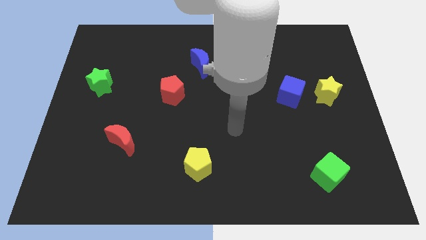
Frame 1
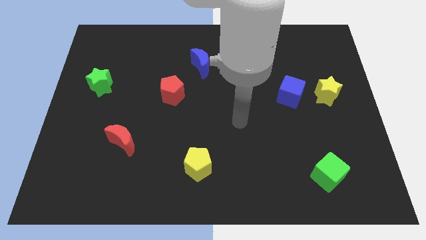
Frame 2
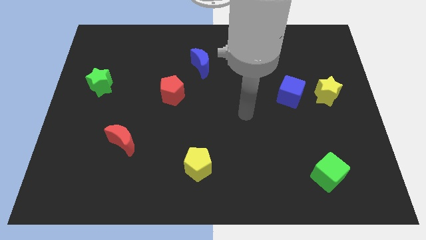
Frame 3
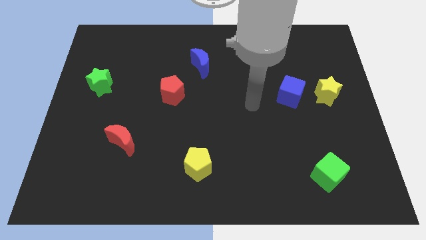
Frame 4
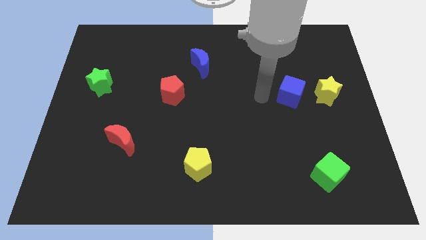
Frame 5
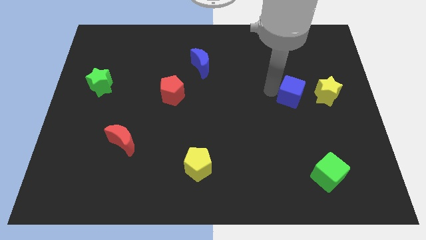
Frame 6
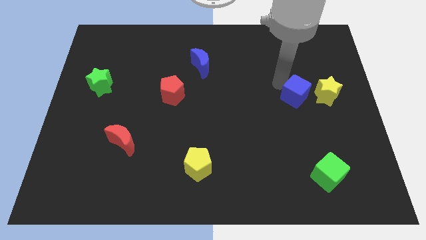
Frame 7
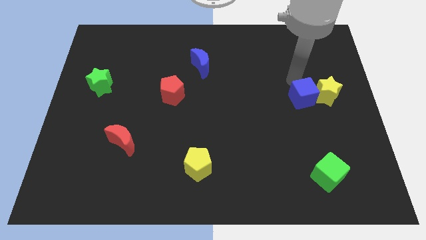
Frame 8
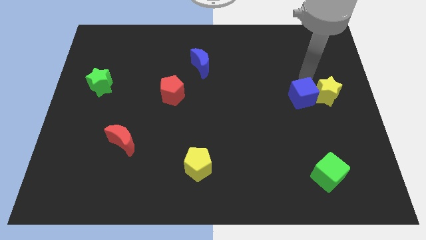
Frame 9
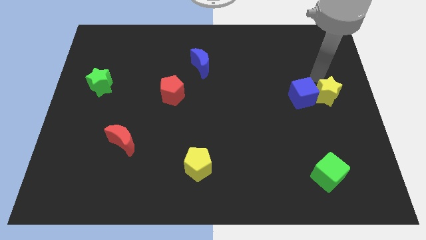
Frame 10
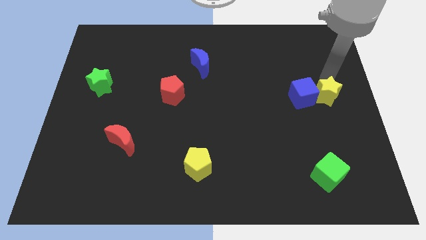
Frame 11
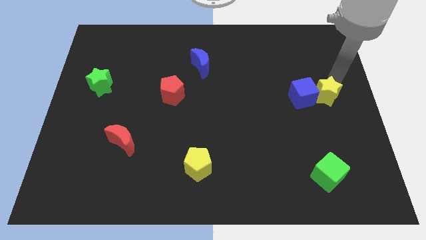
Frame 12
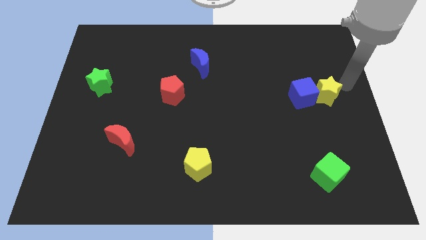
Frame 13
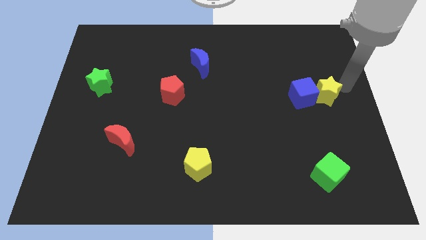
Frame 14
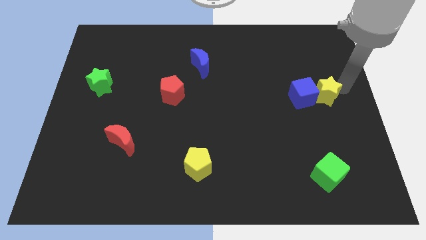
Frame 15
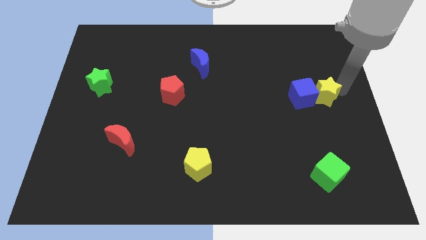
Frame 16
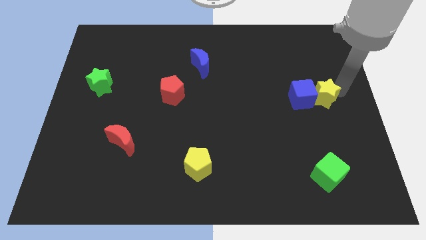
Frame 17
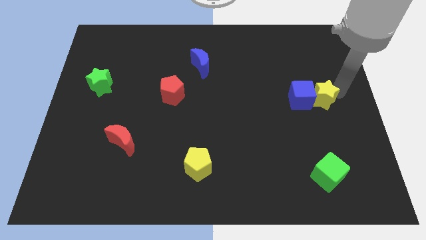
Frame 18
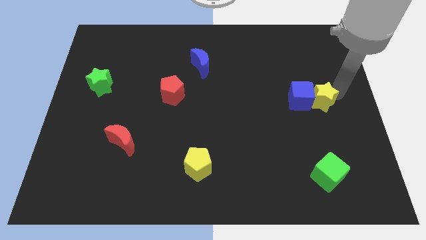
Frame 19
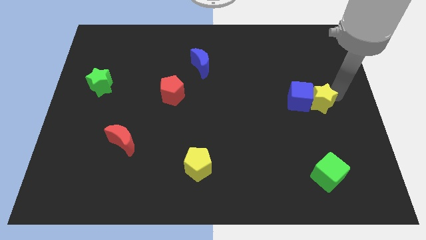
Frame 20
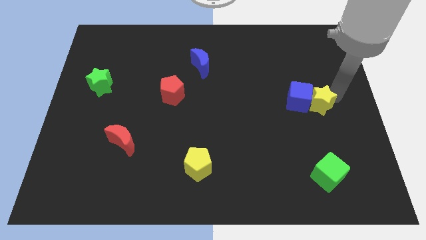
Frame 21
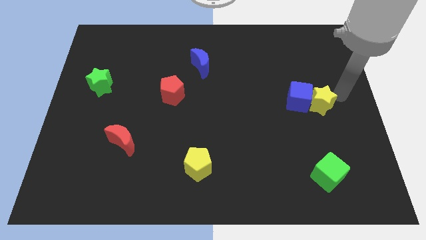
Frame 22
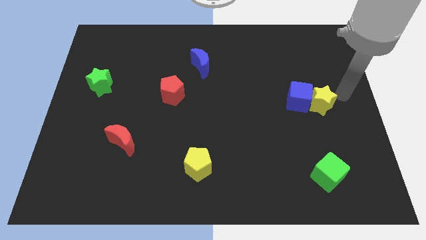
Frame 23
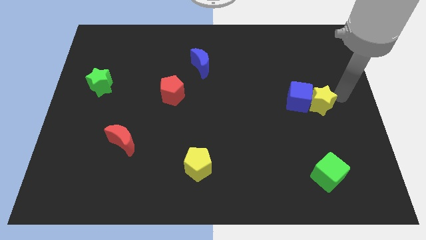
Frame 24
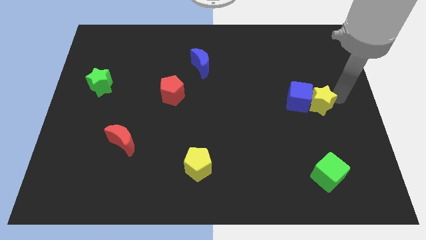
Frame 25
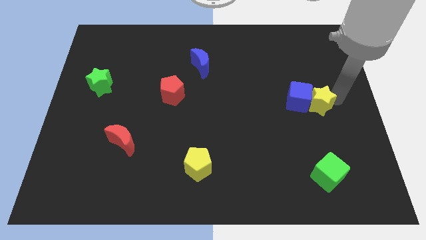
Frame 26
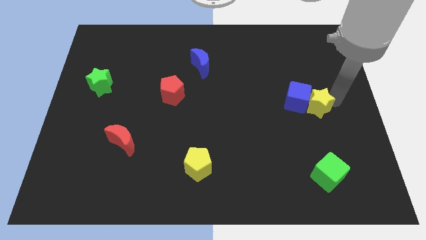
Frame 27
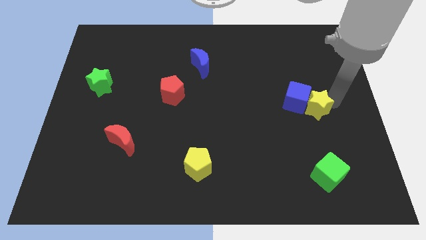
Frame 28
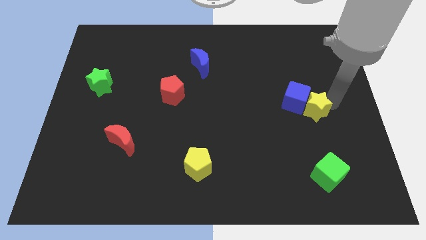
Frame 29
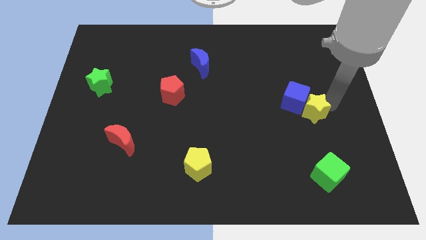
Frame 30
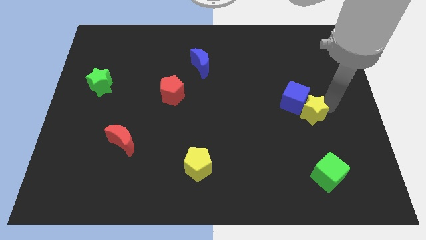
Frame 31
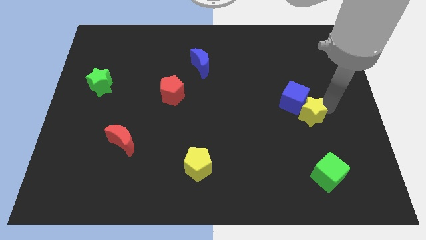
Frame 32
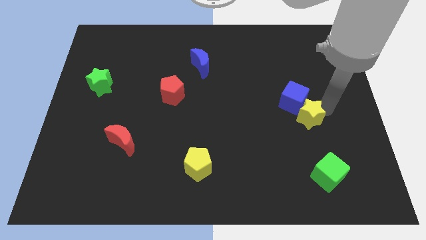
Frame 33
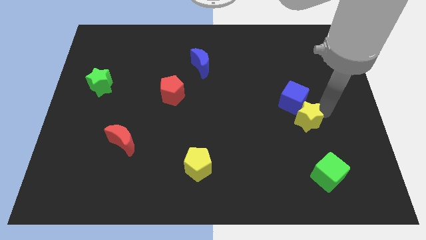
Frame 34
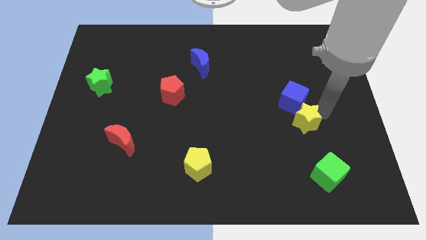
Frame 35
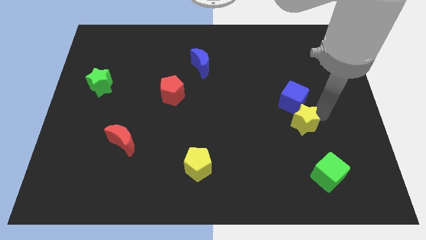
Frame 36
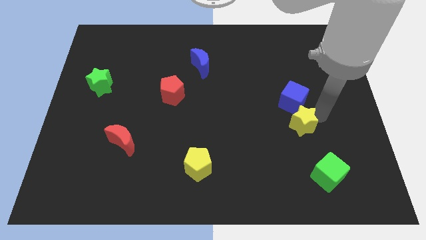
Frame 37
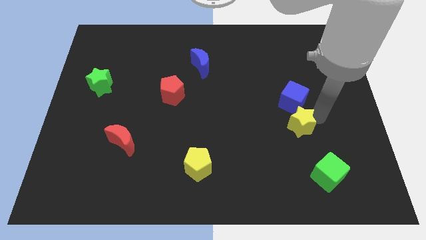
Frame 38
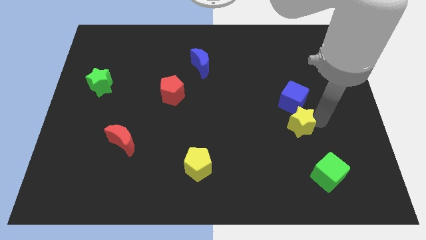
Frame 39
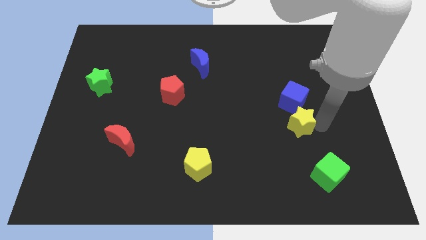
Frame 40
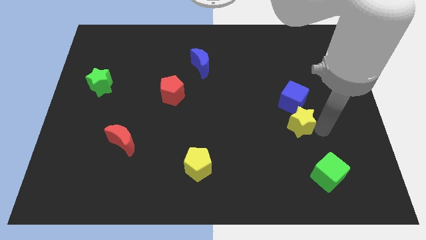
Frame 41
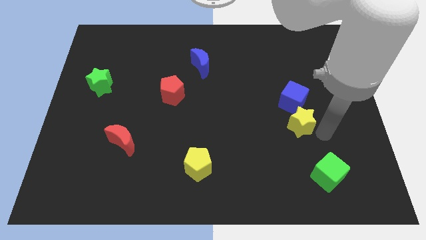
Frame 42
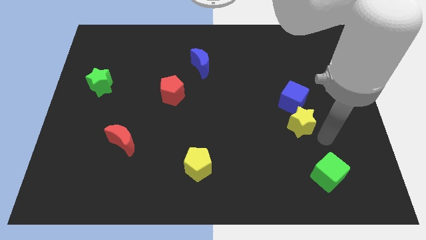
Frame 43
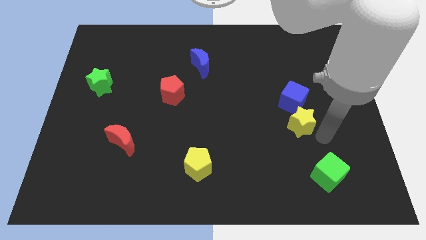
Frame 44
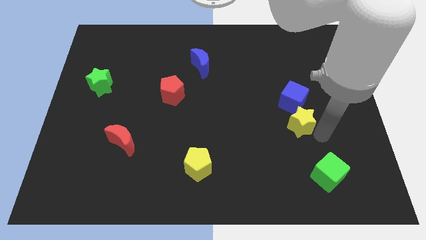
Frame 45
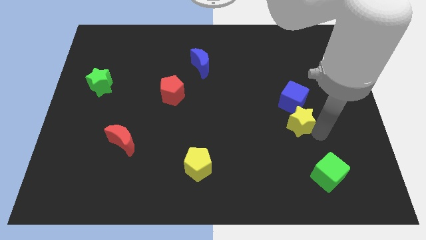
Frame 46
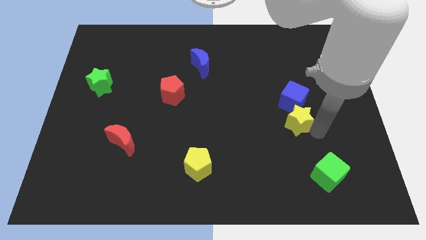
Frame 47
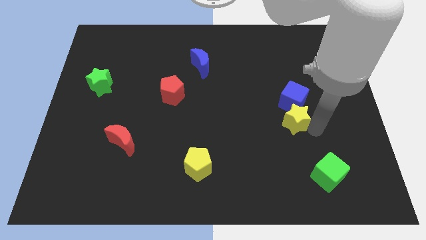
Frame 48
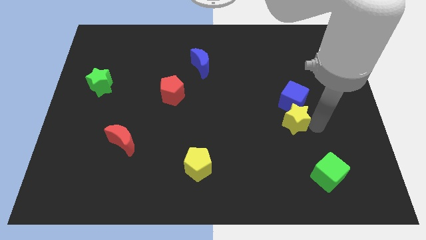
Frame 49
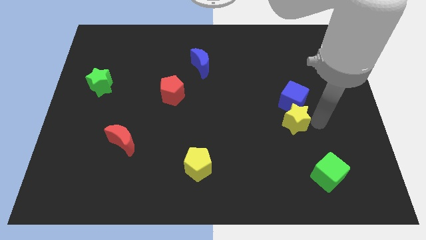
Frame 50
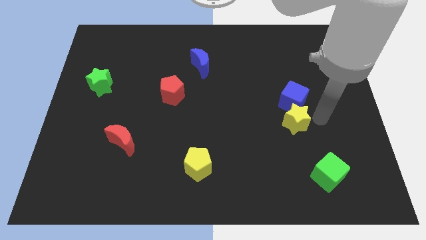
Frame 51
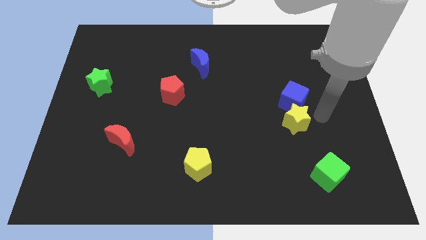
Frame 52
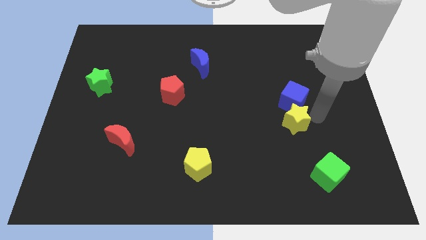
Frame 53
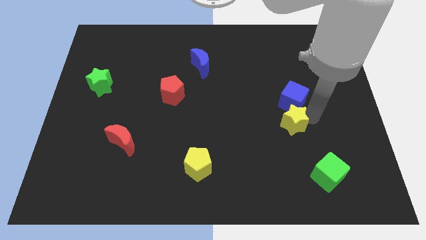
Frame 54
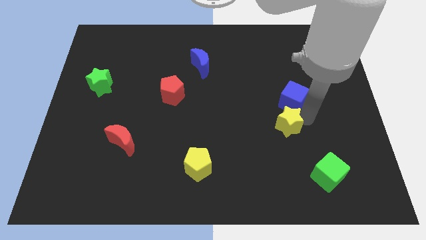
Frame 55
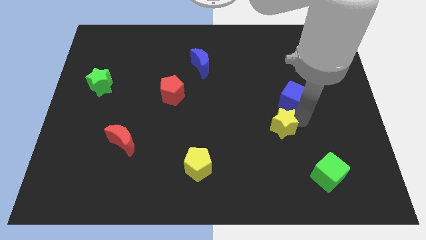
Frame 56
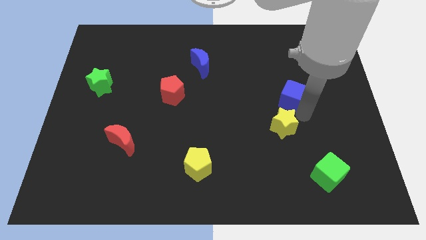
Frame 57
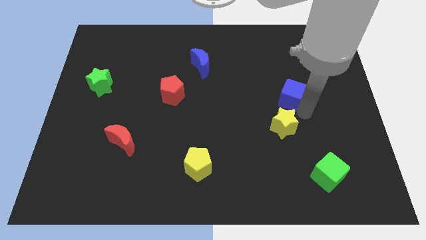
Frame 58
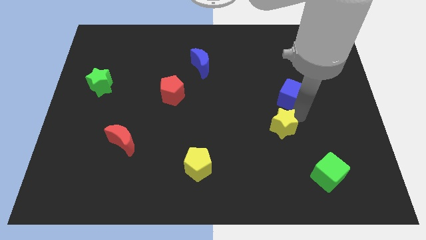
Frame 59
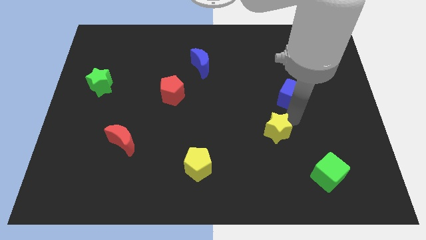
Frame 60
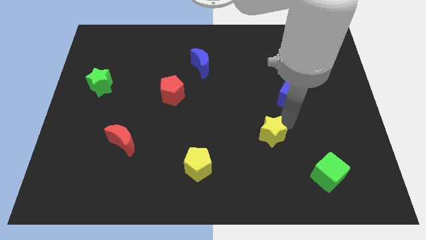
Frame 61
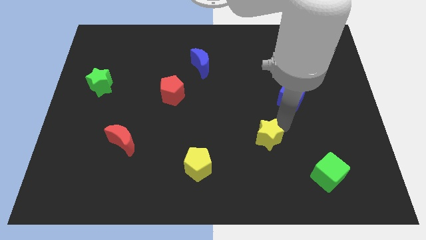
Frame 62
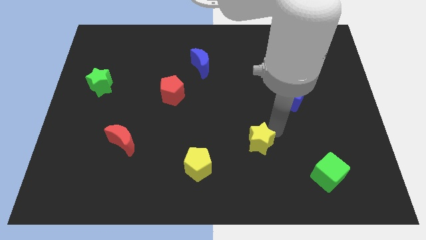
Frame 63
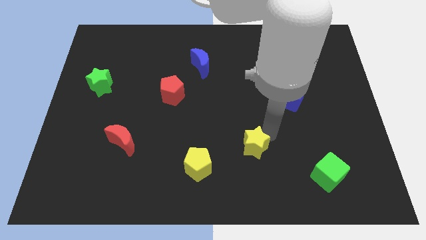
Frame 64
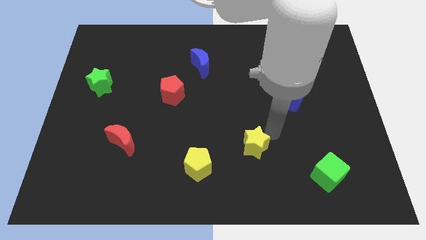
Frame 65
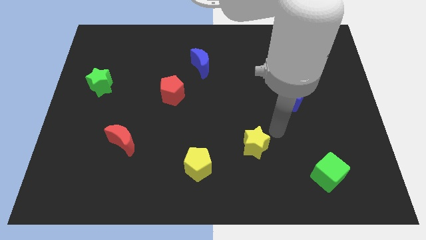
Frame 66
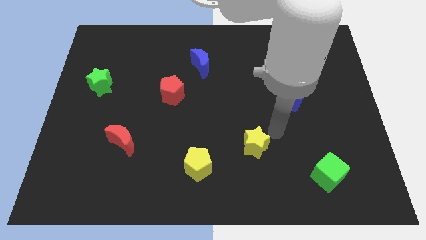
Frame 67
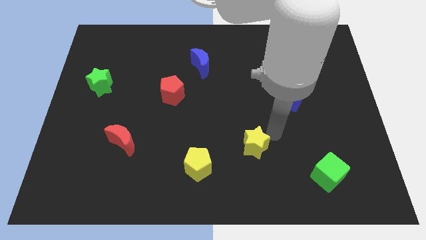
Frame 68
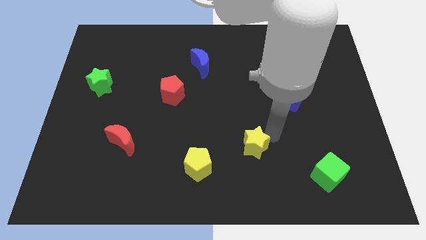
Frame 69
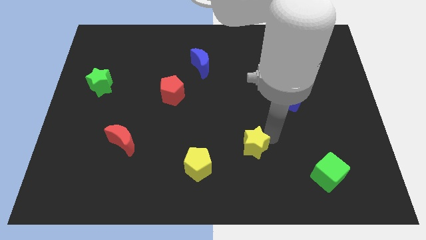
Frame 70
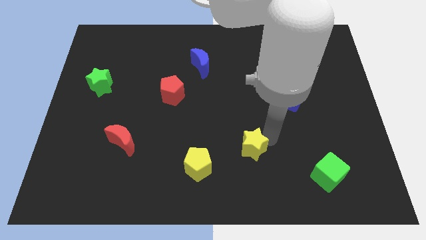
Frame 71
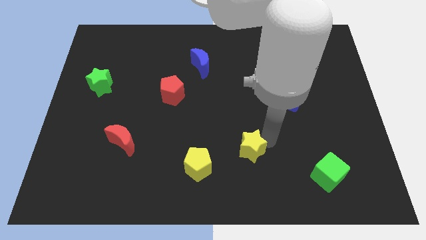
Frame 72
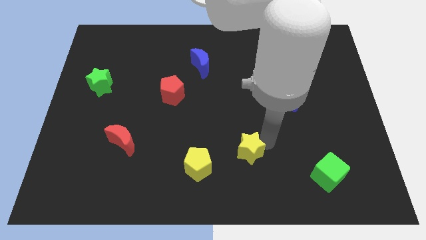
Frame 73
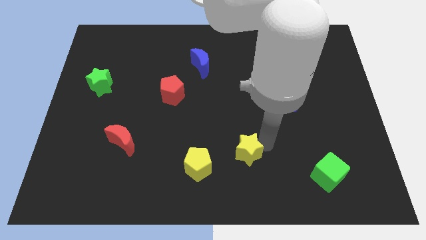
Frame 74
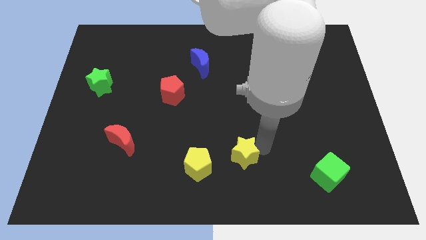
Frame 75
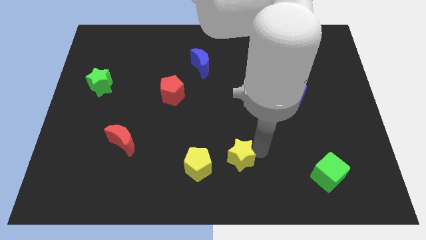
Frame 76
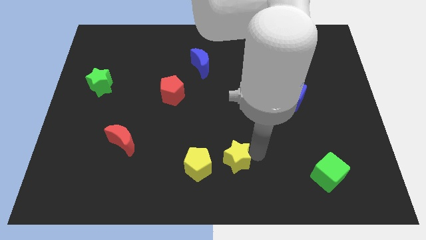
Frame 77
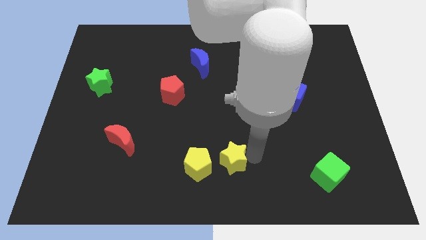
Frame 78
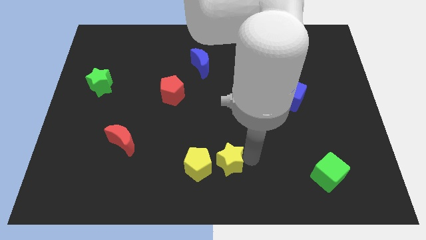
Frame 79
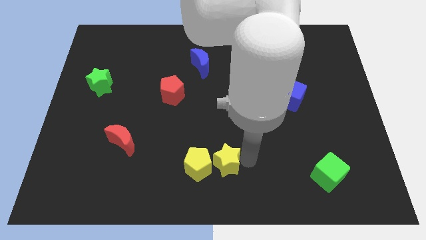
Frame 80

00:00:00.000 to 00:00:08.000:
put the yellow star to the yellow pentagon

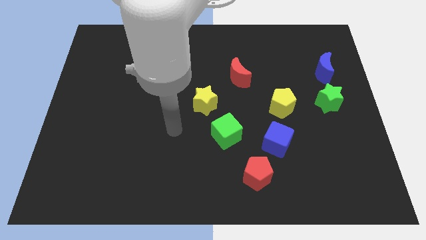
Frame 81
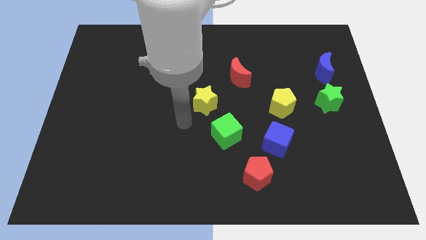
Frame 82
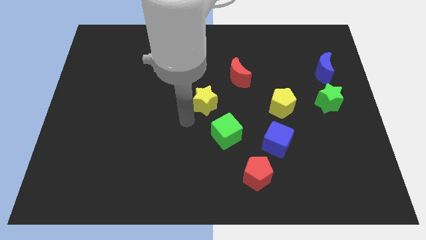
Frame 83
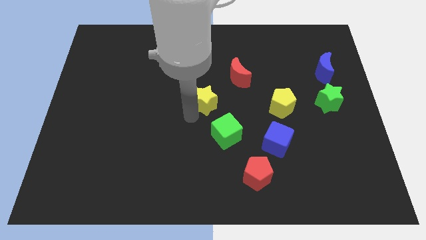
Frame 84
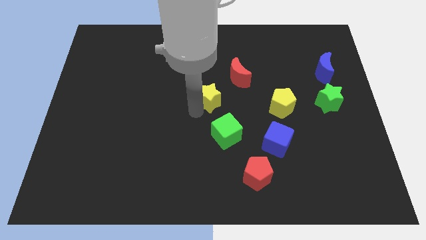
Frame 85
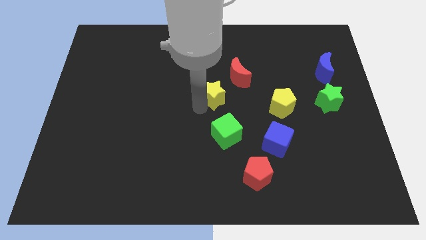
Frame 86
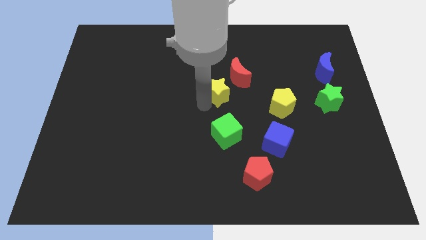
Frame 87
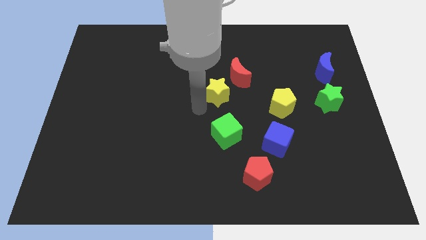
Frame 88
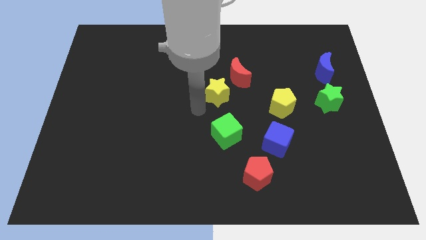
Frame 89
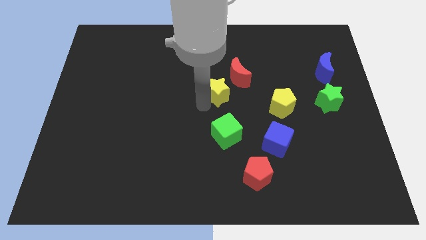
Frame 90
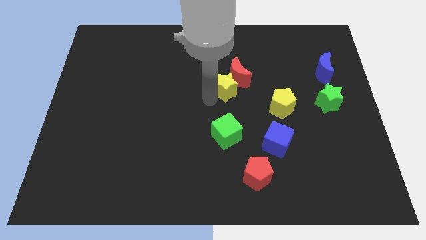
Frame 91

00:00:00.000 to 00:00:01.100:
slide the yellow star to the red moon
